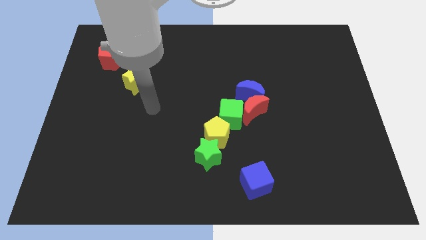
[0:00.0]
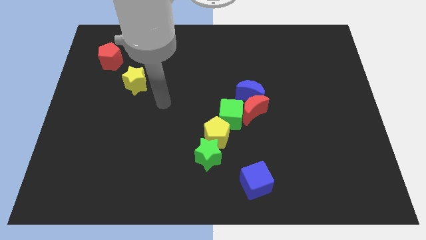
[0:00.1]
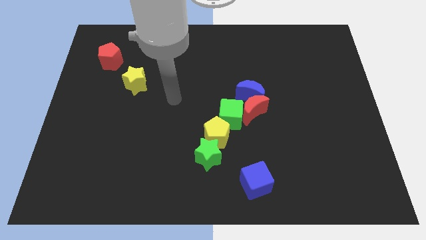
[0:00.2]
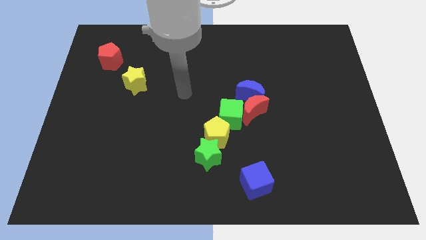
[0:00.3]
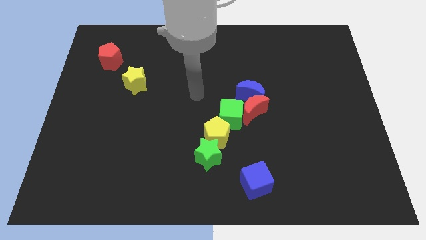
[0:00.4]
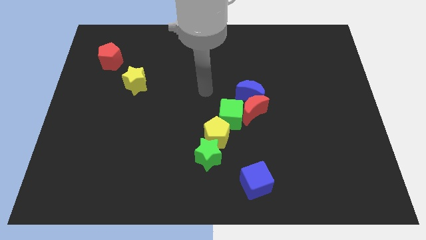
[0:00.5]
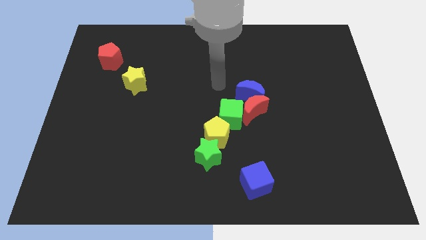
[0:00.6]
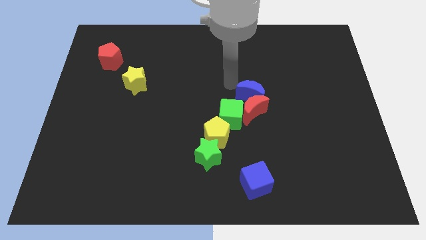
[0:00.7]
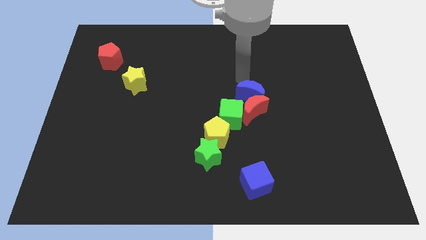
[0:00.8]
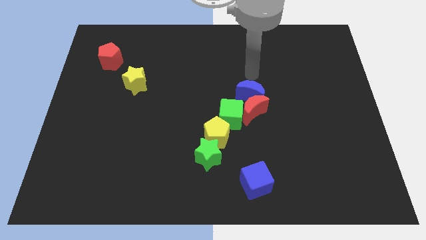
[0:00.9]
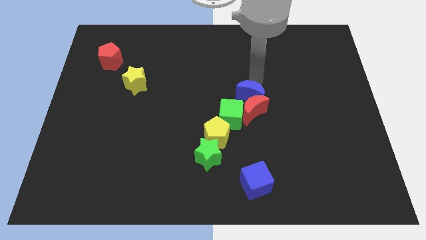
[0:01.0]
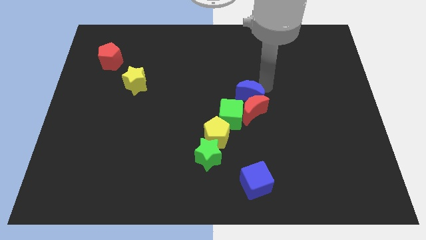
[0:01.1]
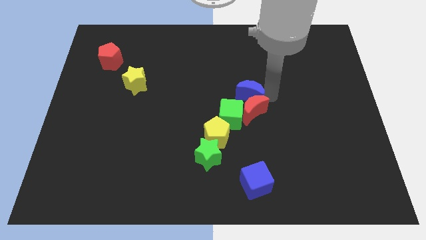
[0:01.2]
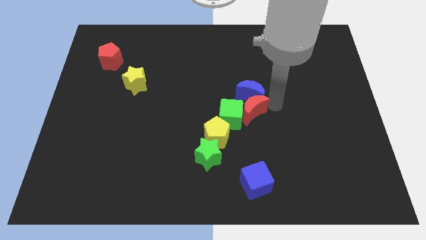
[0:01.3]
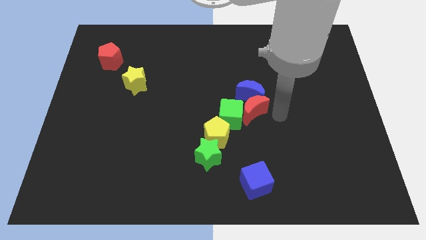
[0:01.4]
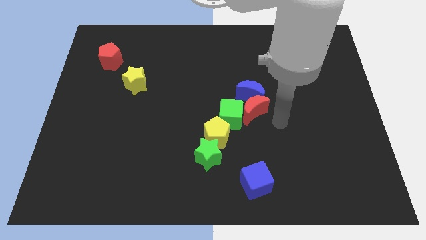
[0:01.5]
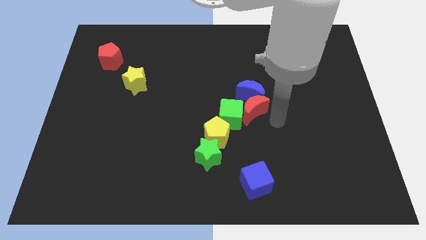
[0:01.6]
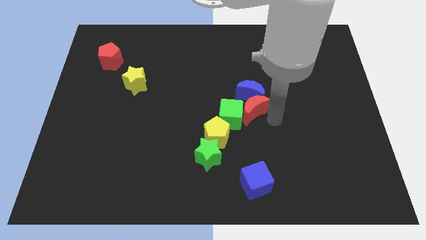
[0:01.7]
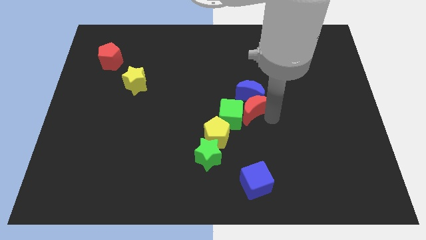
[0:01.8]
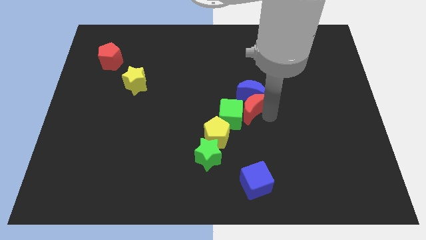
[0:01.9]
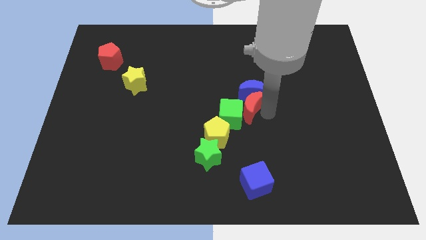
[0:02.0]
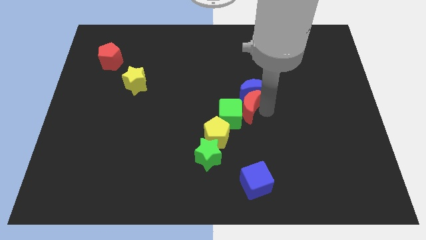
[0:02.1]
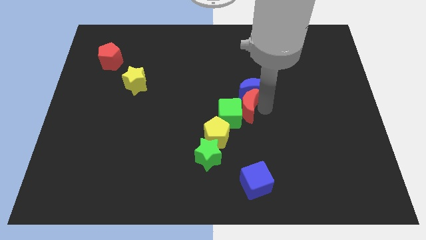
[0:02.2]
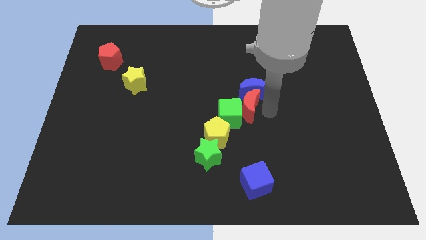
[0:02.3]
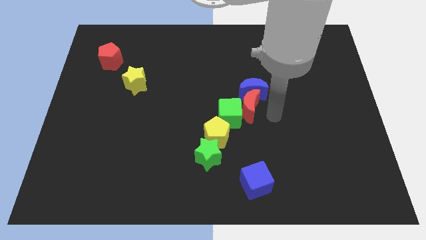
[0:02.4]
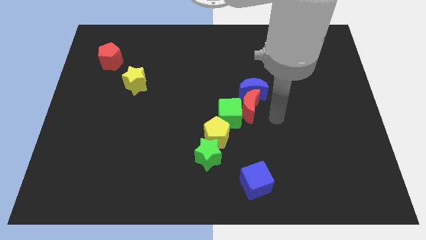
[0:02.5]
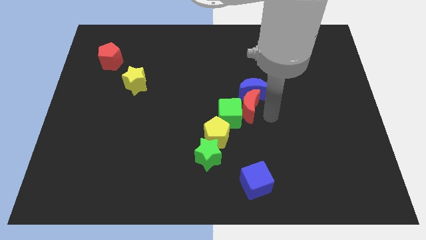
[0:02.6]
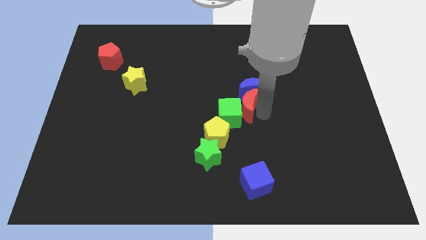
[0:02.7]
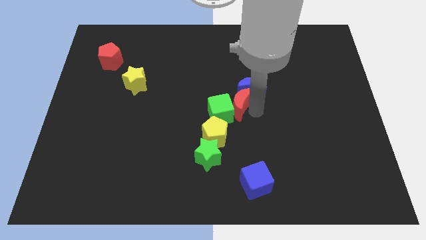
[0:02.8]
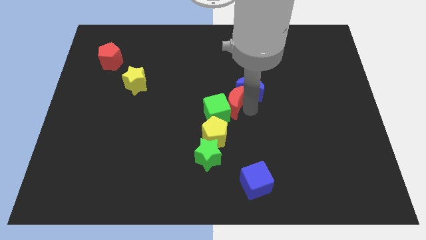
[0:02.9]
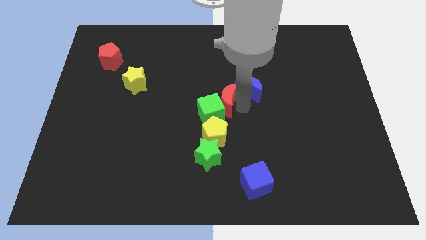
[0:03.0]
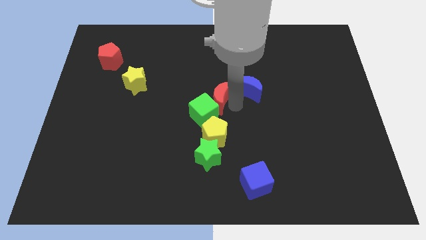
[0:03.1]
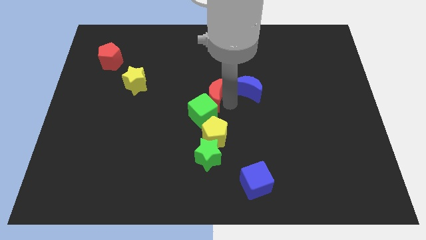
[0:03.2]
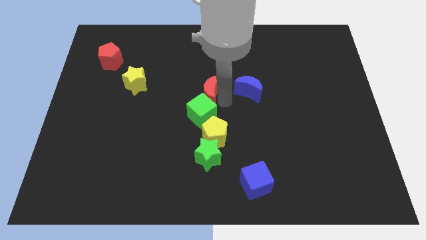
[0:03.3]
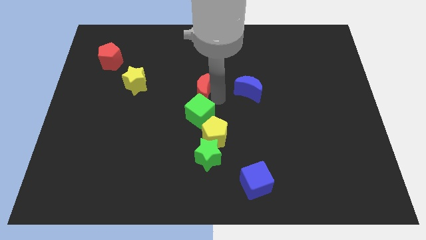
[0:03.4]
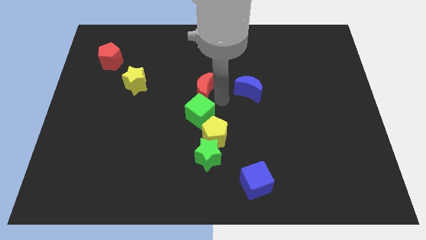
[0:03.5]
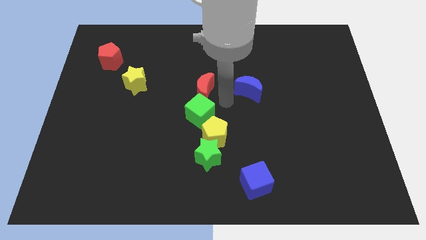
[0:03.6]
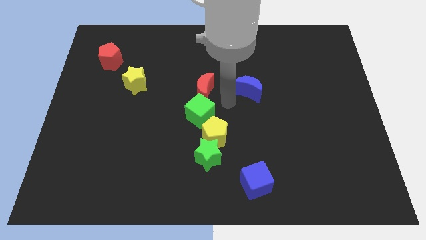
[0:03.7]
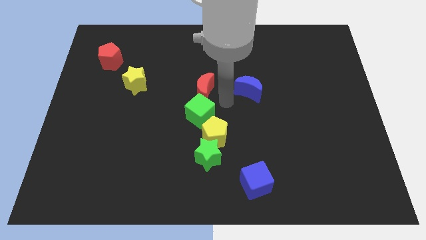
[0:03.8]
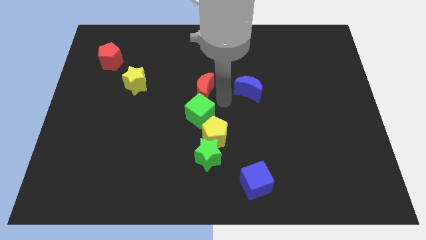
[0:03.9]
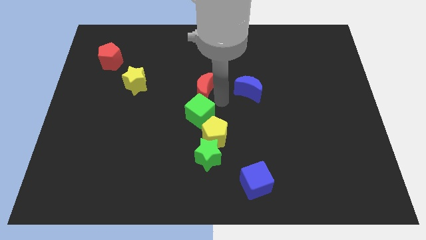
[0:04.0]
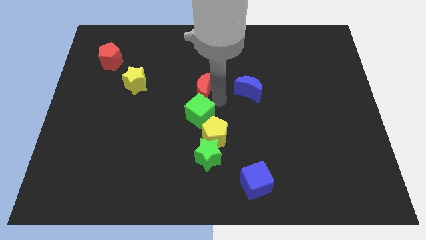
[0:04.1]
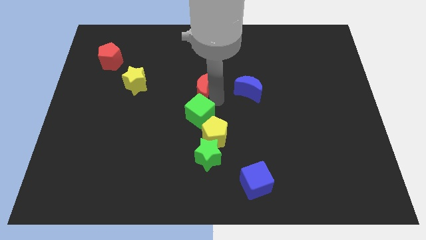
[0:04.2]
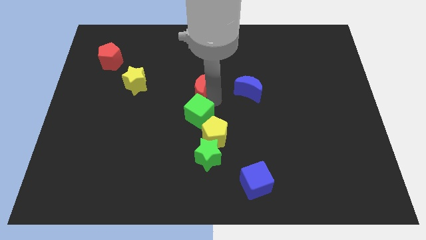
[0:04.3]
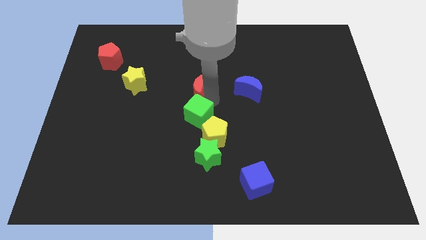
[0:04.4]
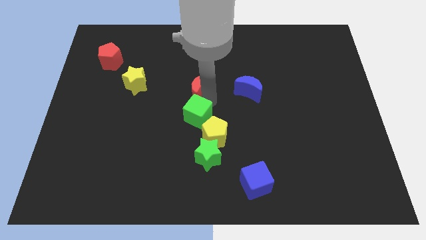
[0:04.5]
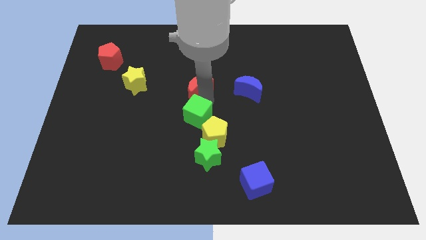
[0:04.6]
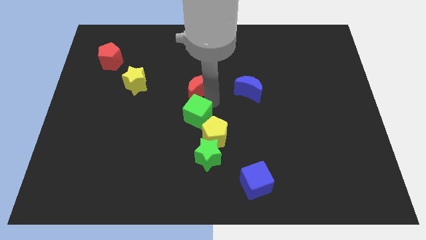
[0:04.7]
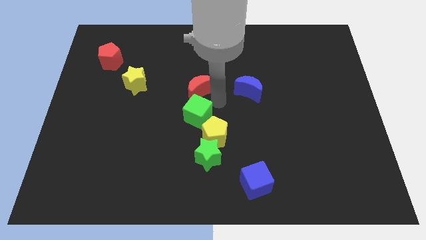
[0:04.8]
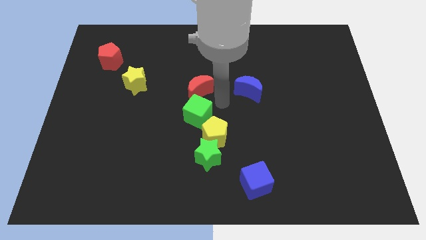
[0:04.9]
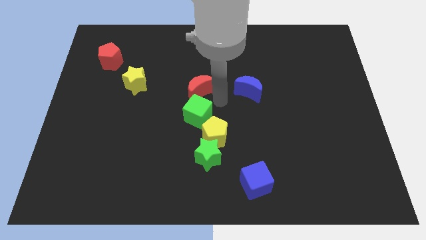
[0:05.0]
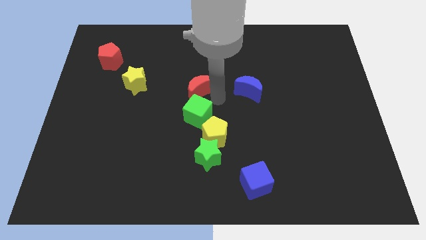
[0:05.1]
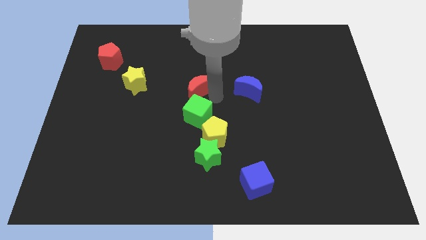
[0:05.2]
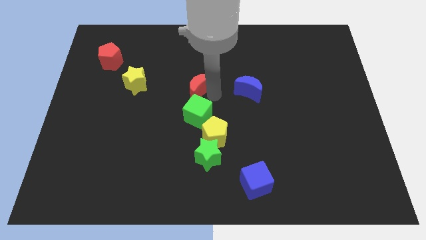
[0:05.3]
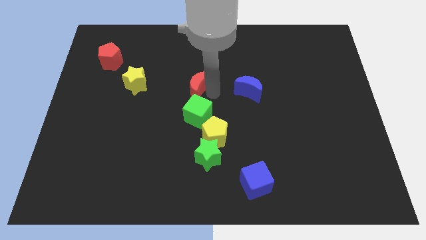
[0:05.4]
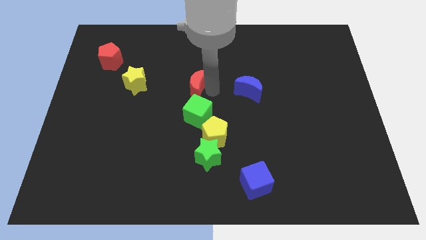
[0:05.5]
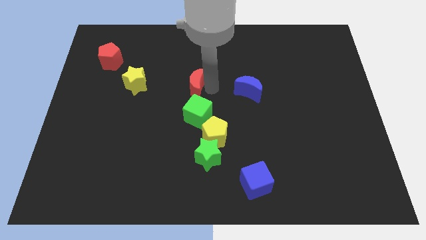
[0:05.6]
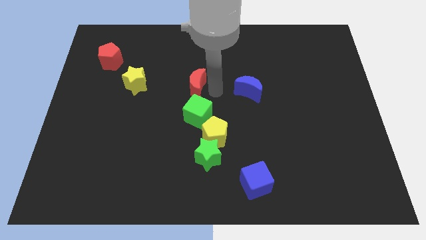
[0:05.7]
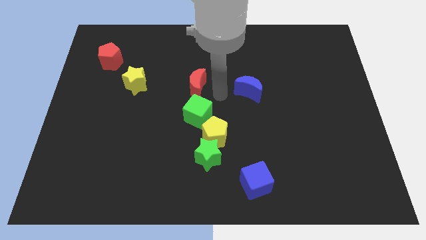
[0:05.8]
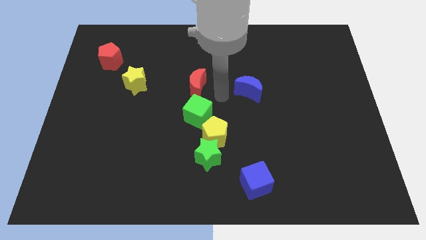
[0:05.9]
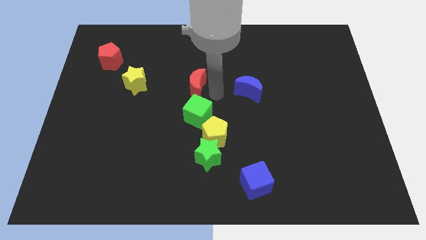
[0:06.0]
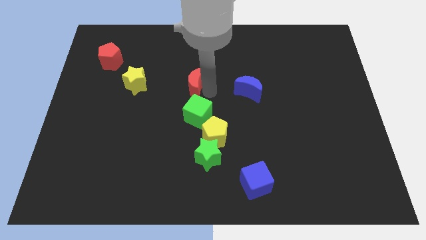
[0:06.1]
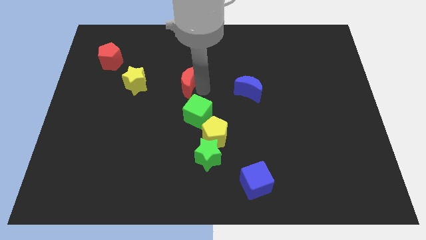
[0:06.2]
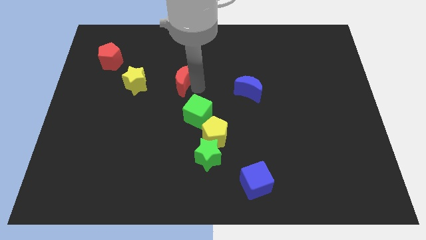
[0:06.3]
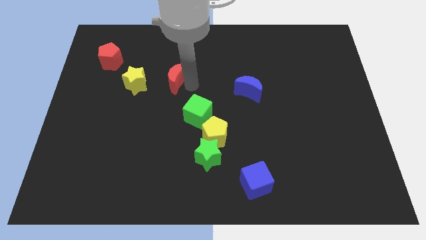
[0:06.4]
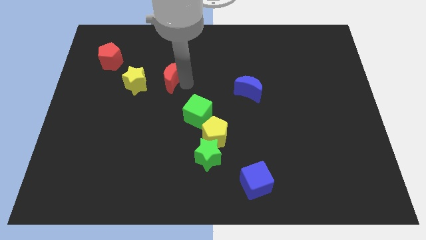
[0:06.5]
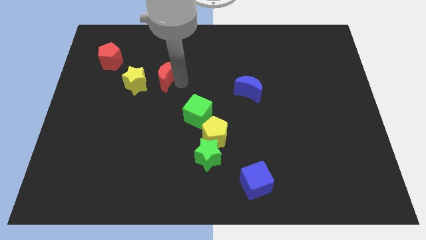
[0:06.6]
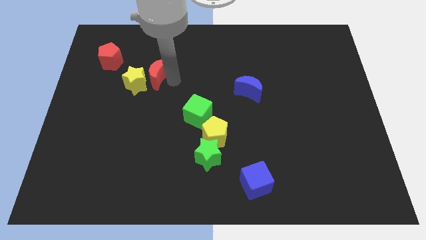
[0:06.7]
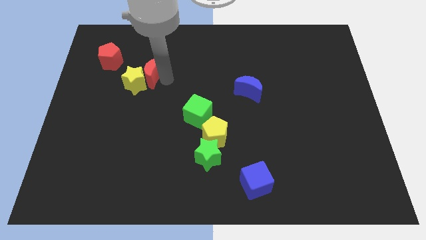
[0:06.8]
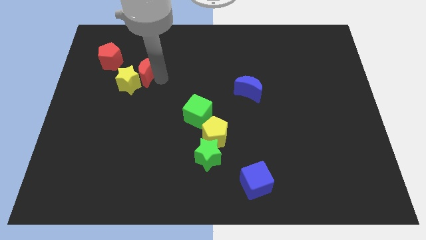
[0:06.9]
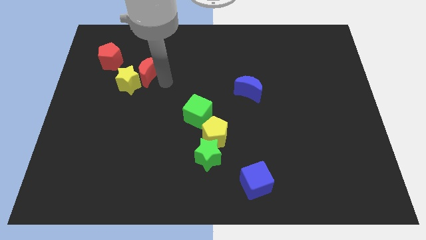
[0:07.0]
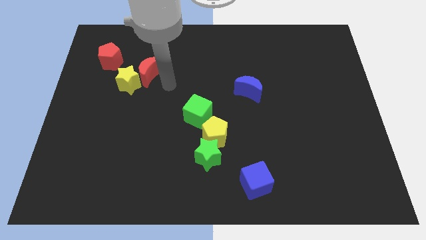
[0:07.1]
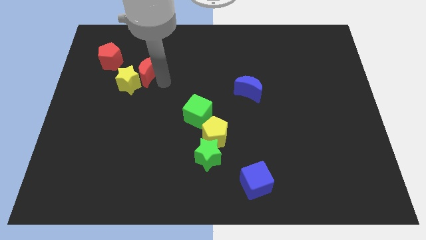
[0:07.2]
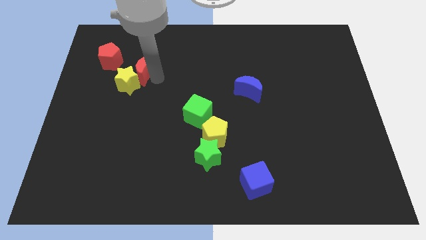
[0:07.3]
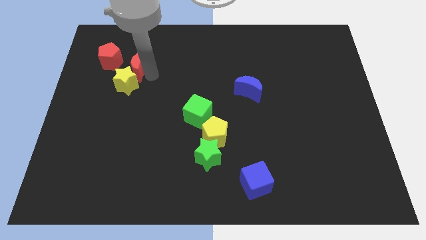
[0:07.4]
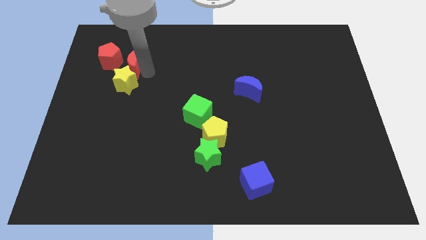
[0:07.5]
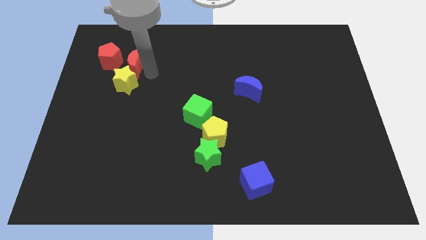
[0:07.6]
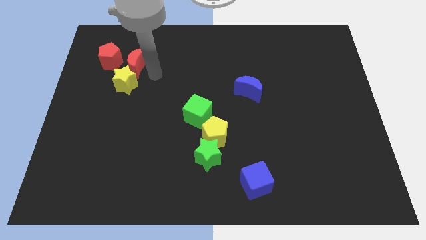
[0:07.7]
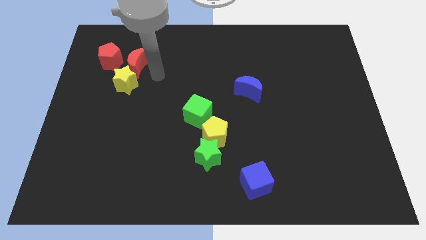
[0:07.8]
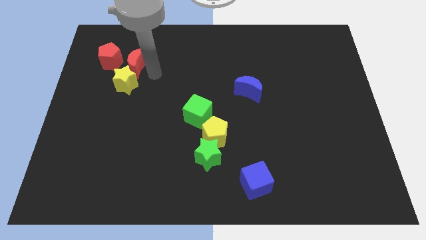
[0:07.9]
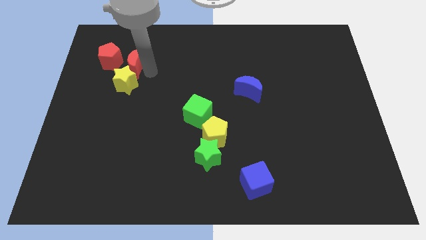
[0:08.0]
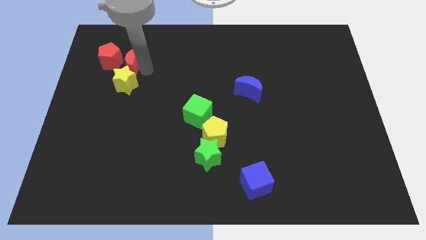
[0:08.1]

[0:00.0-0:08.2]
put the red moon towards the red pentagon
